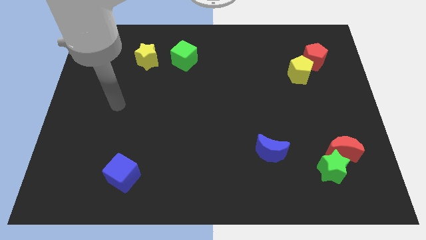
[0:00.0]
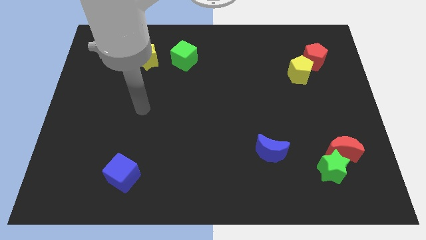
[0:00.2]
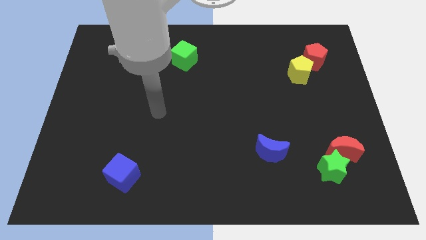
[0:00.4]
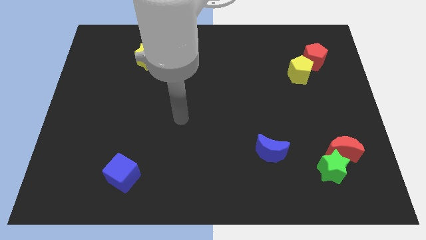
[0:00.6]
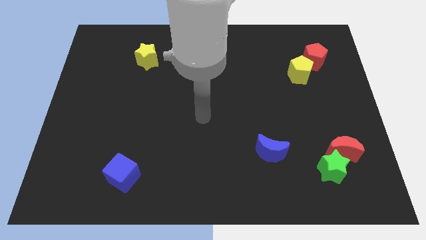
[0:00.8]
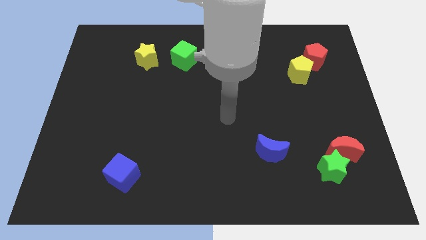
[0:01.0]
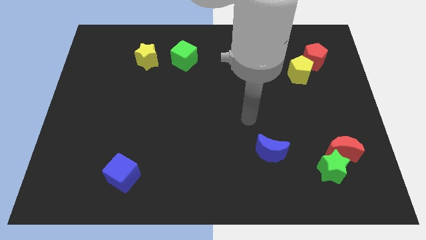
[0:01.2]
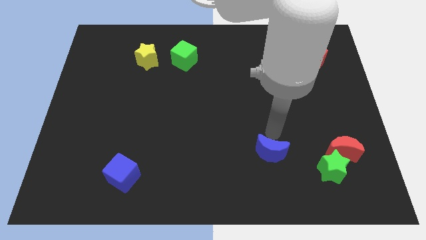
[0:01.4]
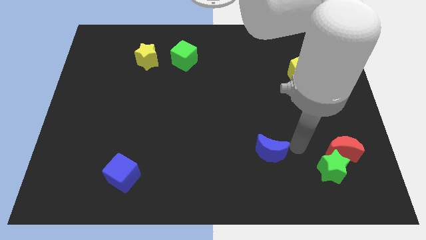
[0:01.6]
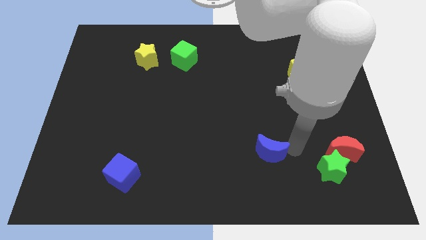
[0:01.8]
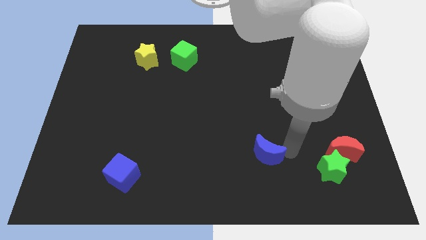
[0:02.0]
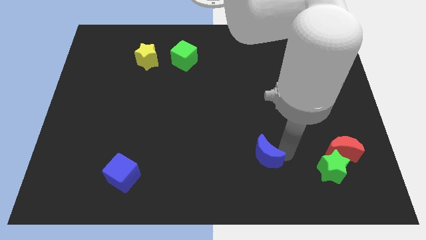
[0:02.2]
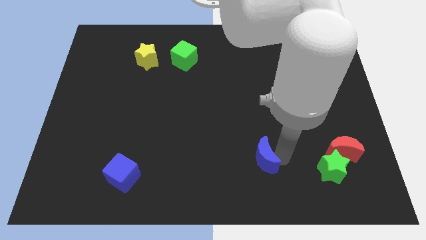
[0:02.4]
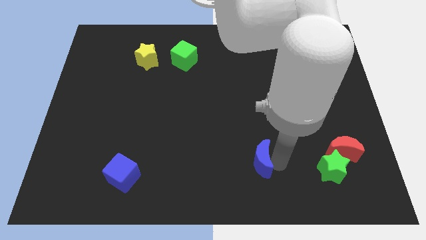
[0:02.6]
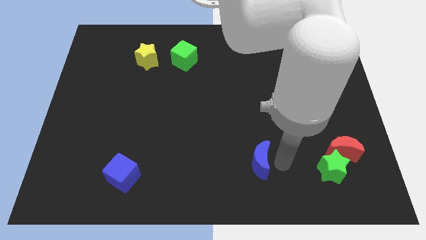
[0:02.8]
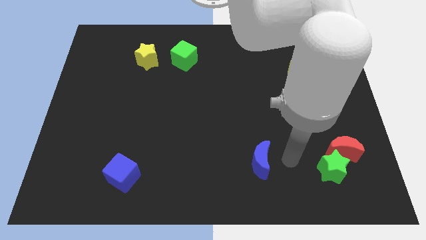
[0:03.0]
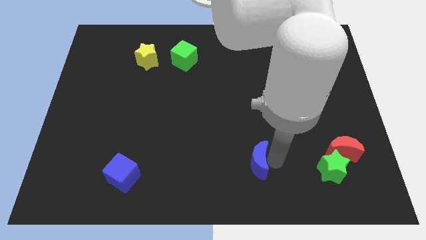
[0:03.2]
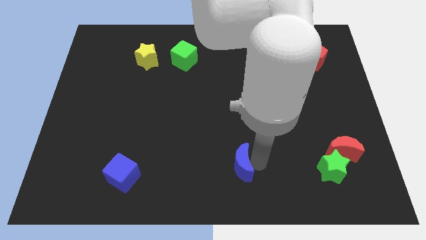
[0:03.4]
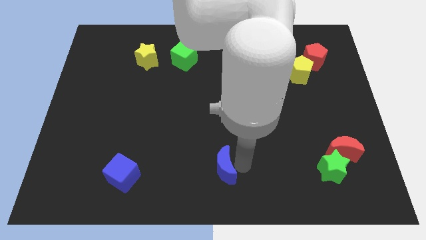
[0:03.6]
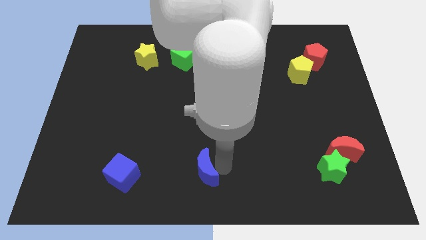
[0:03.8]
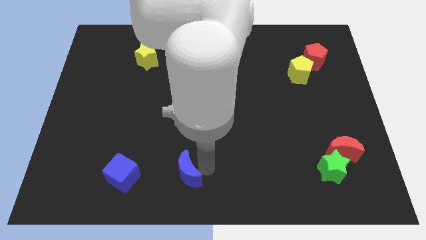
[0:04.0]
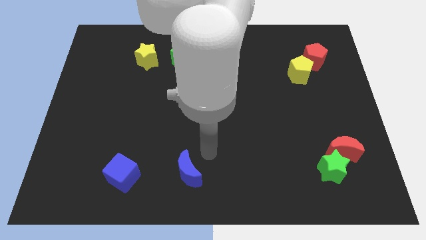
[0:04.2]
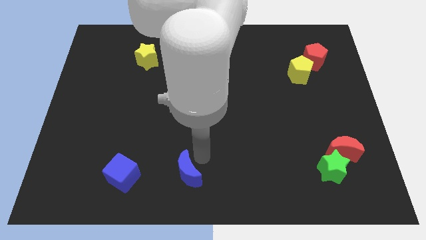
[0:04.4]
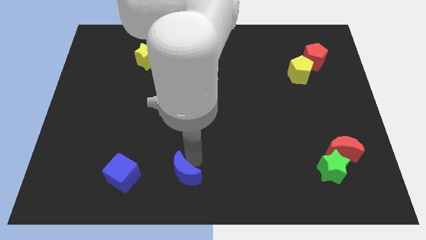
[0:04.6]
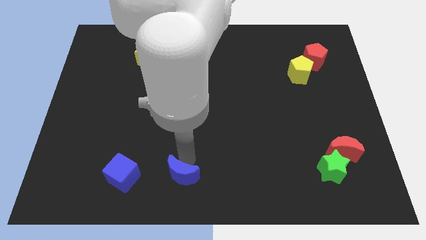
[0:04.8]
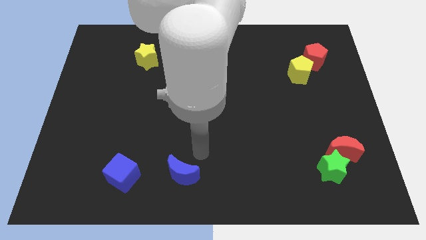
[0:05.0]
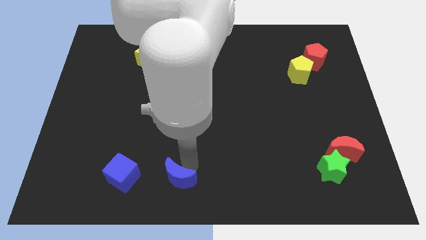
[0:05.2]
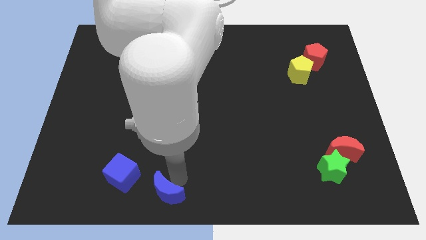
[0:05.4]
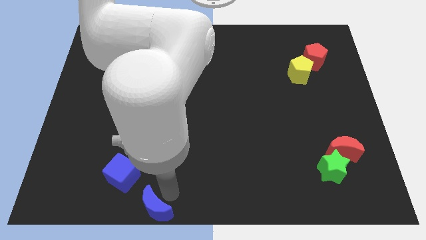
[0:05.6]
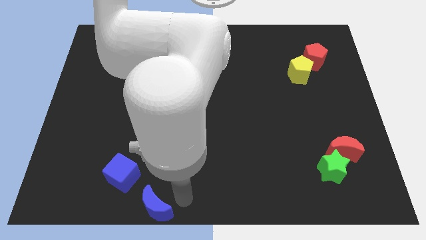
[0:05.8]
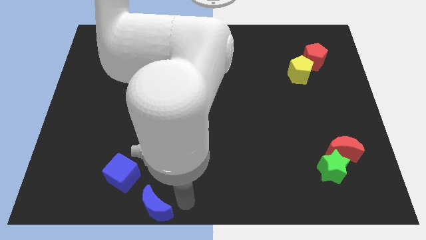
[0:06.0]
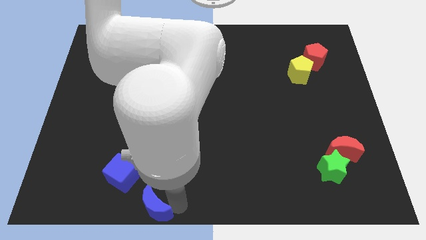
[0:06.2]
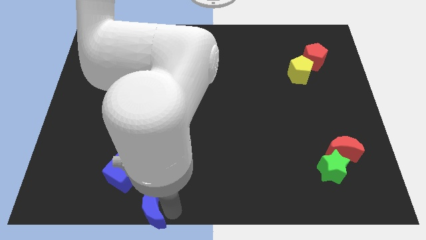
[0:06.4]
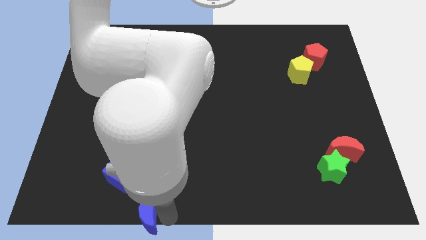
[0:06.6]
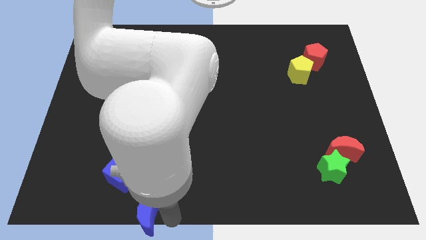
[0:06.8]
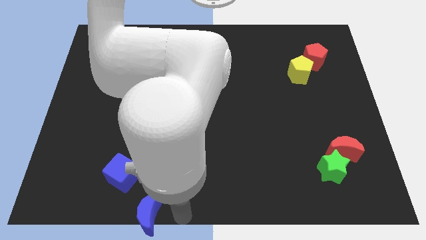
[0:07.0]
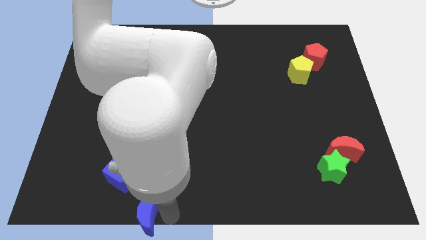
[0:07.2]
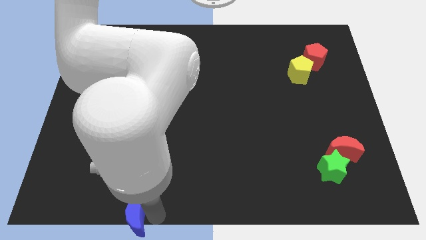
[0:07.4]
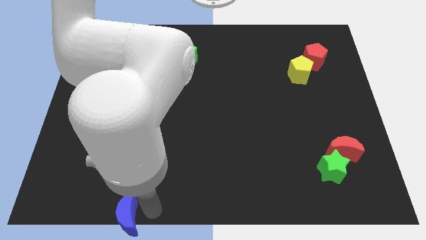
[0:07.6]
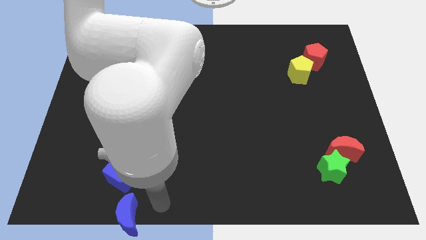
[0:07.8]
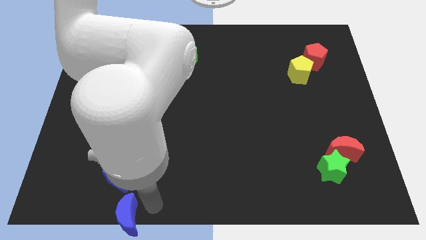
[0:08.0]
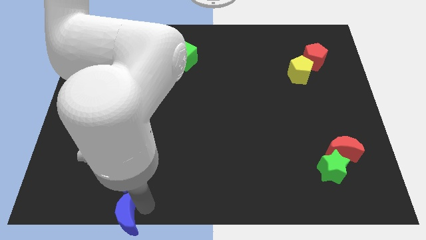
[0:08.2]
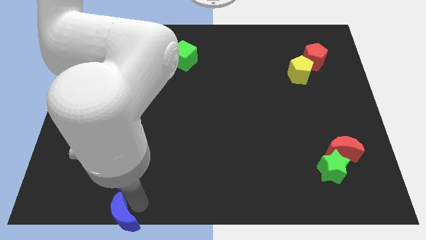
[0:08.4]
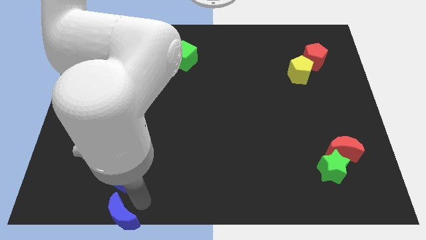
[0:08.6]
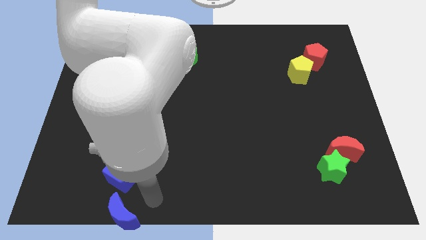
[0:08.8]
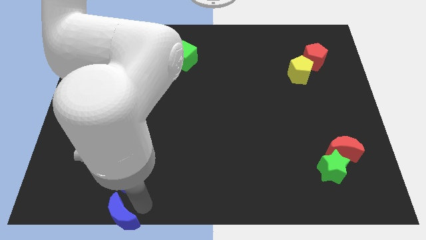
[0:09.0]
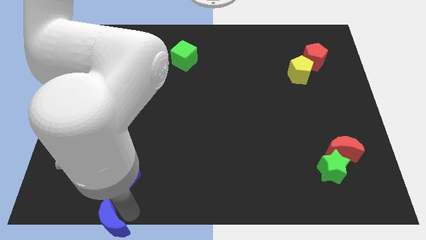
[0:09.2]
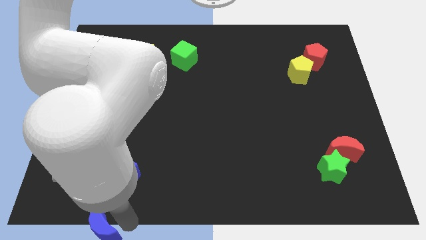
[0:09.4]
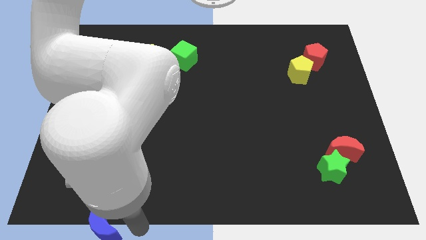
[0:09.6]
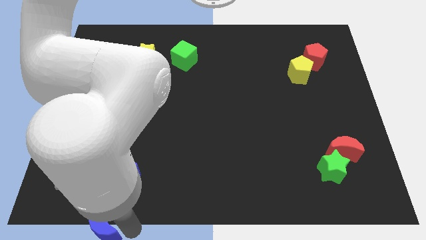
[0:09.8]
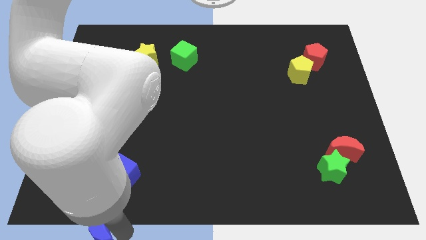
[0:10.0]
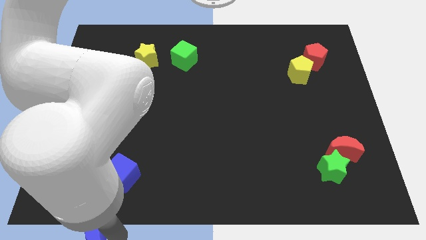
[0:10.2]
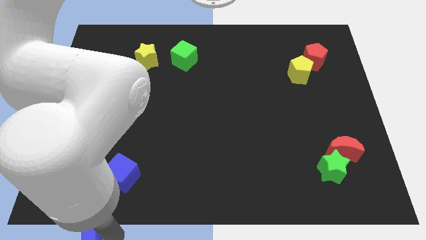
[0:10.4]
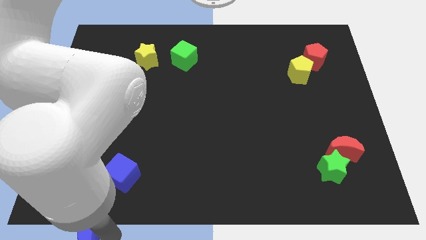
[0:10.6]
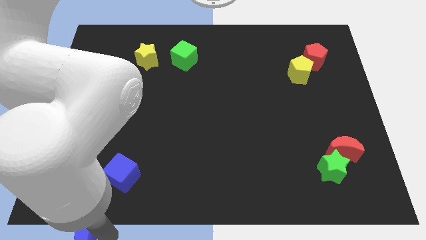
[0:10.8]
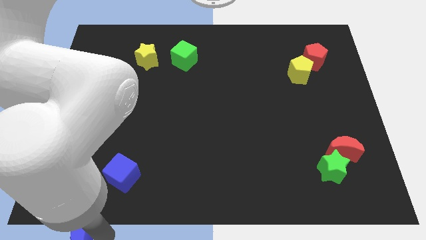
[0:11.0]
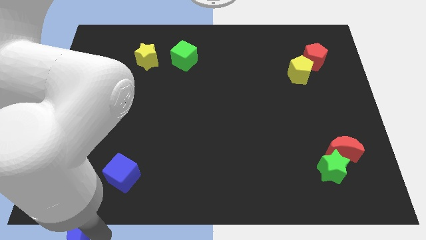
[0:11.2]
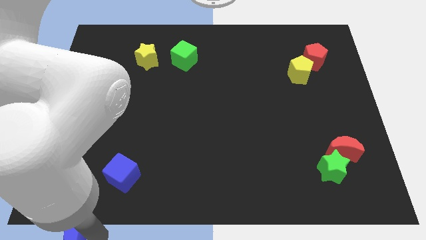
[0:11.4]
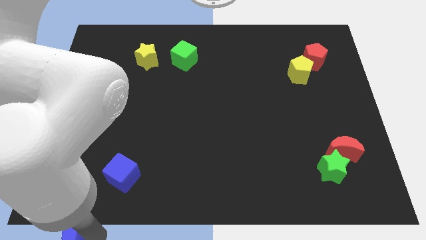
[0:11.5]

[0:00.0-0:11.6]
put the blue moon to the bottom left

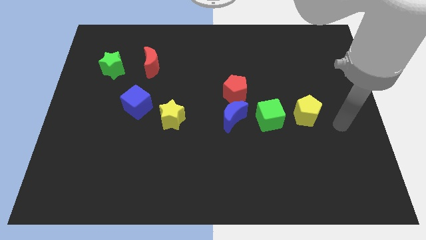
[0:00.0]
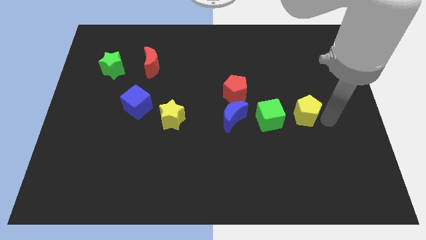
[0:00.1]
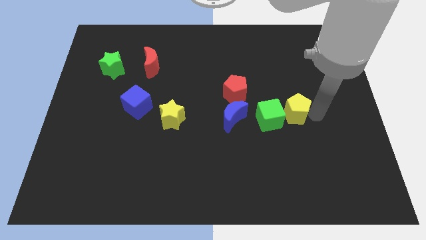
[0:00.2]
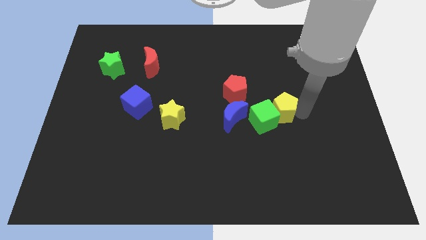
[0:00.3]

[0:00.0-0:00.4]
move the green cube to the center

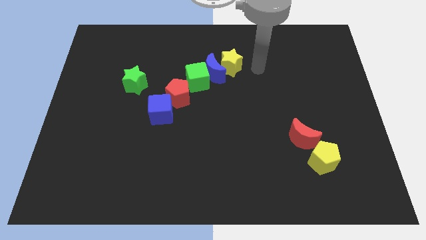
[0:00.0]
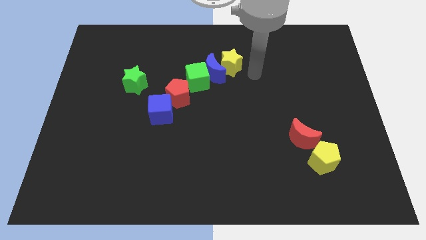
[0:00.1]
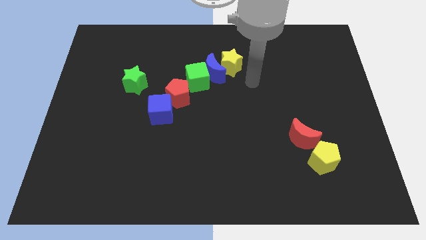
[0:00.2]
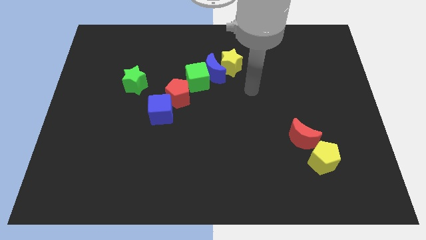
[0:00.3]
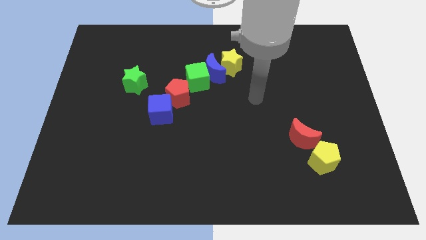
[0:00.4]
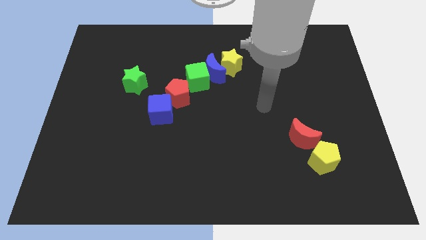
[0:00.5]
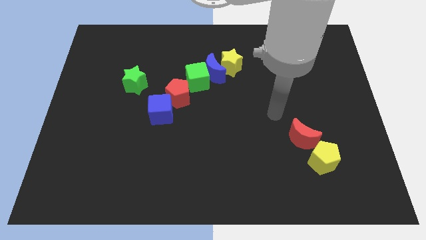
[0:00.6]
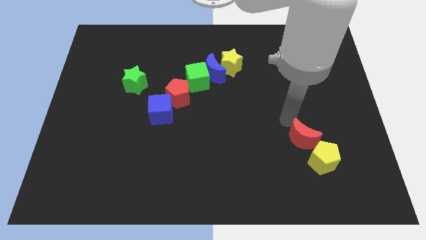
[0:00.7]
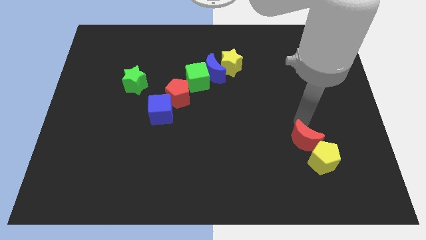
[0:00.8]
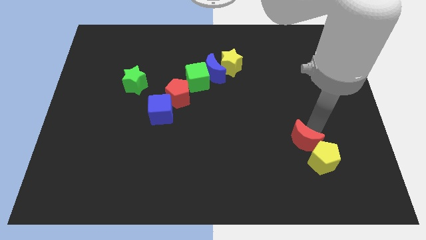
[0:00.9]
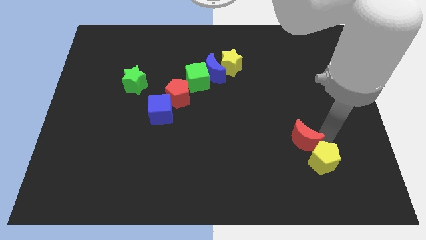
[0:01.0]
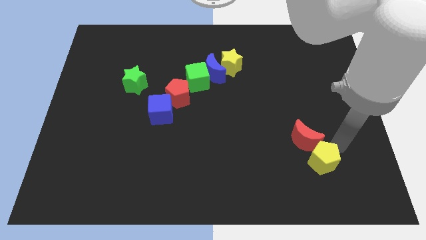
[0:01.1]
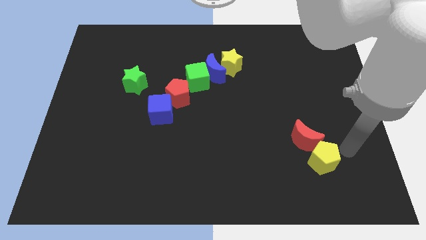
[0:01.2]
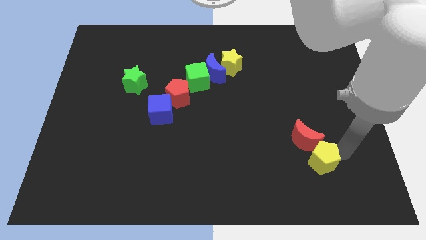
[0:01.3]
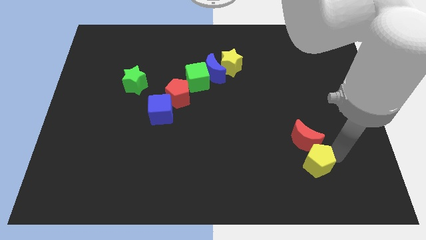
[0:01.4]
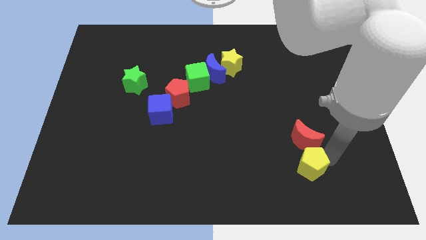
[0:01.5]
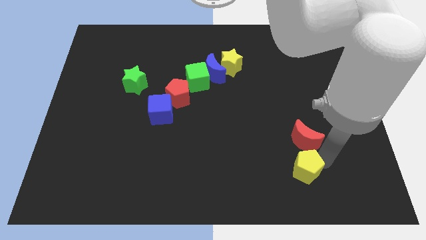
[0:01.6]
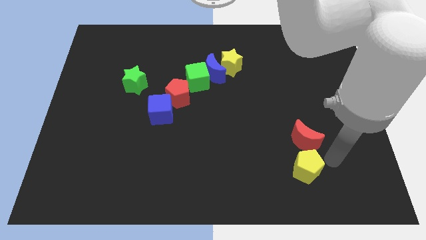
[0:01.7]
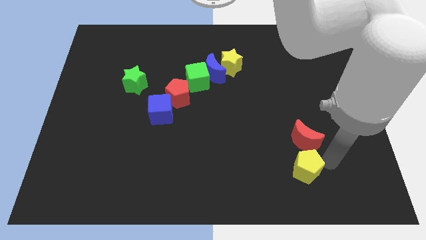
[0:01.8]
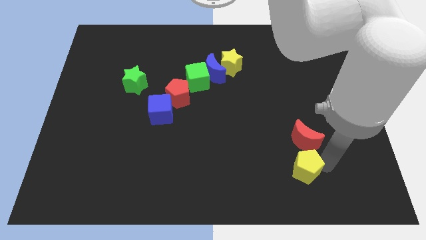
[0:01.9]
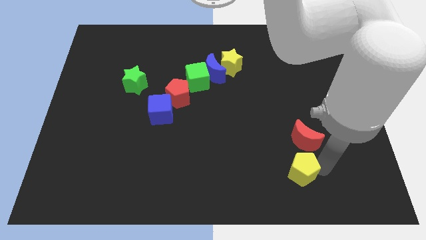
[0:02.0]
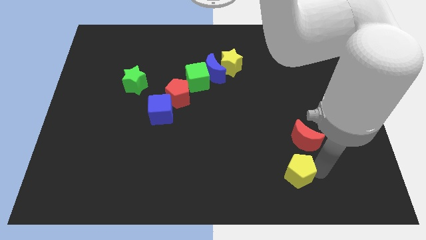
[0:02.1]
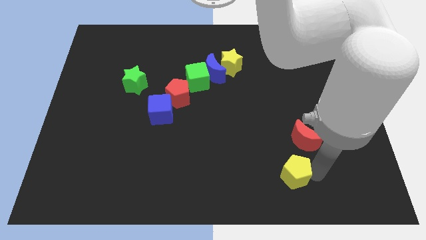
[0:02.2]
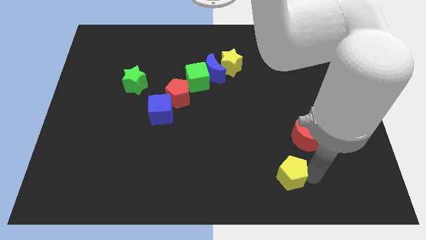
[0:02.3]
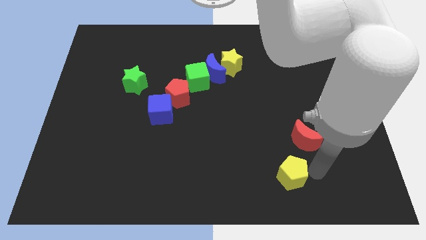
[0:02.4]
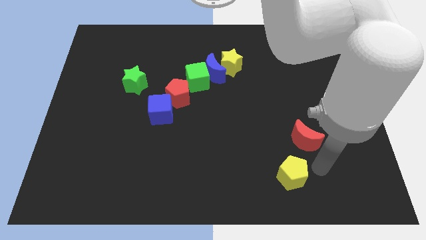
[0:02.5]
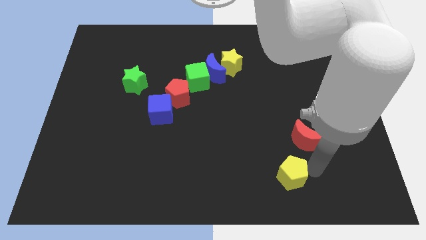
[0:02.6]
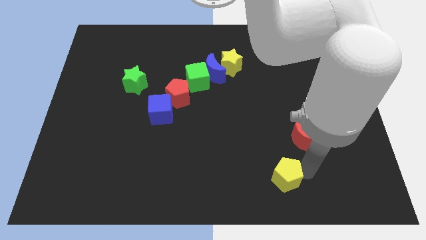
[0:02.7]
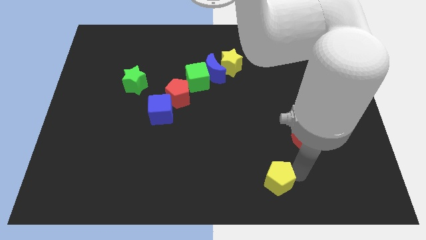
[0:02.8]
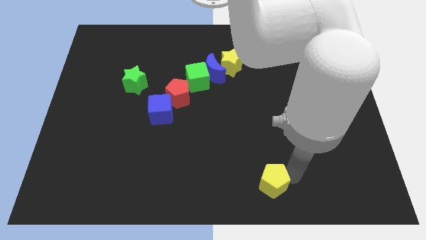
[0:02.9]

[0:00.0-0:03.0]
push the yellow pentagon to the bottom side
